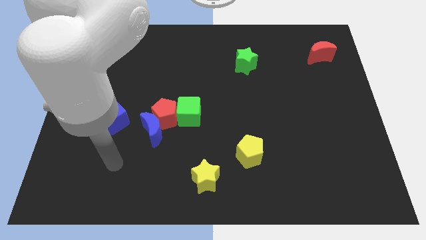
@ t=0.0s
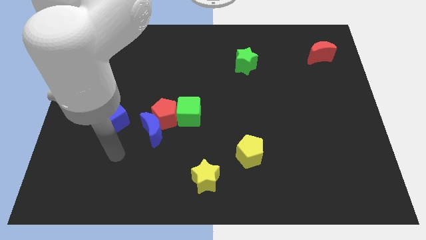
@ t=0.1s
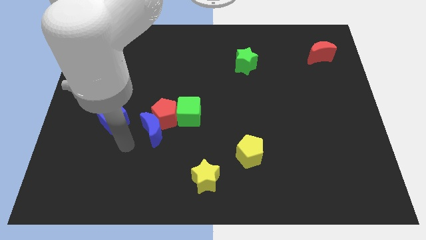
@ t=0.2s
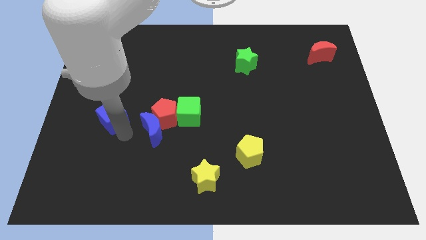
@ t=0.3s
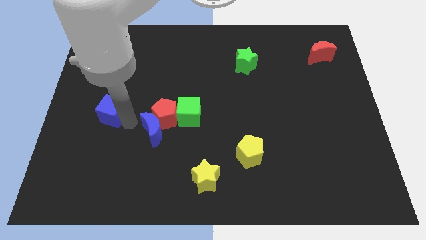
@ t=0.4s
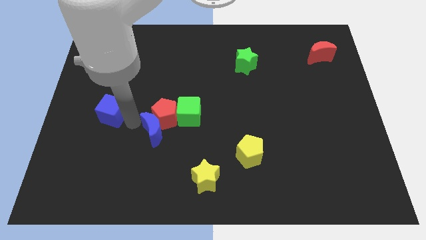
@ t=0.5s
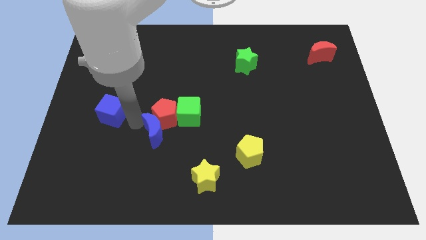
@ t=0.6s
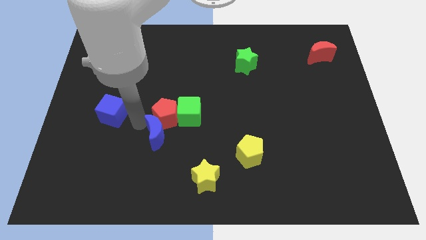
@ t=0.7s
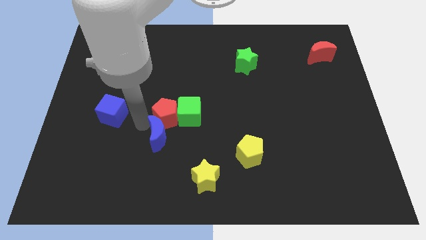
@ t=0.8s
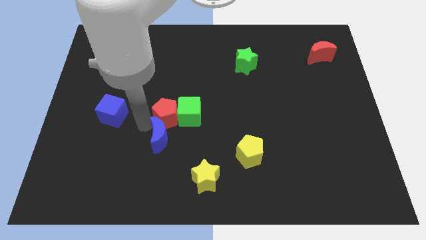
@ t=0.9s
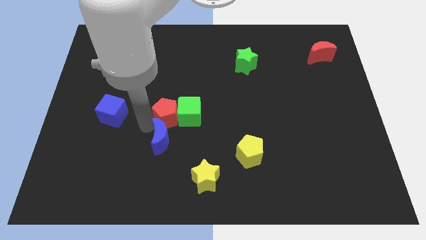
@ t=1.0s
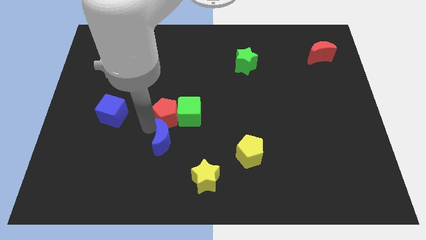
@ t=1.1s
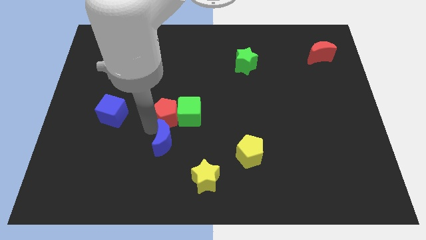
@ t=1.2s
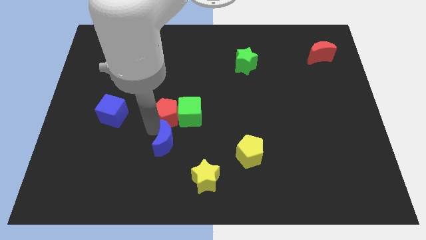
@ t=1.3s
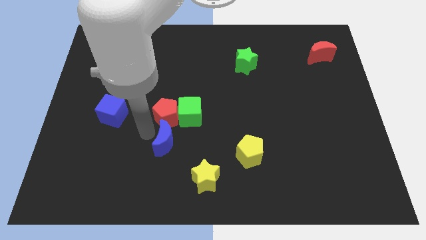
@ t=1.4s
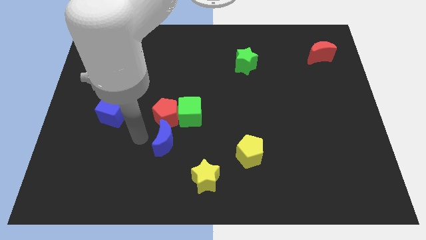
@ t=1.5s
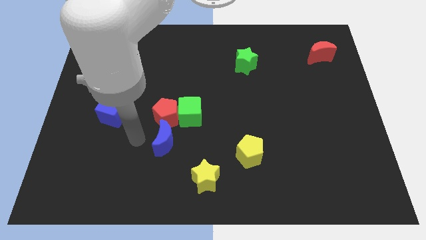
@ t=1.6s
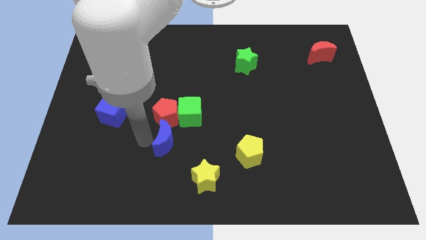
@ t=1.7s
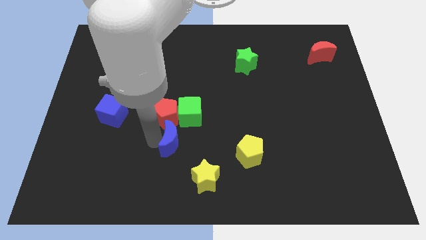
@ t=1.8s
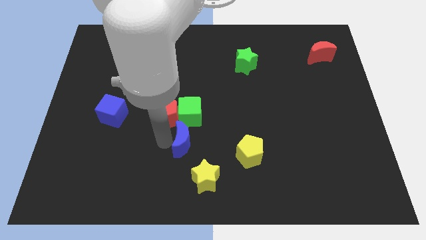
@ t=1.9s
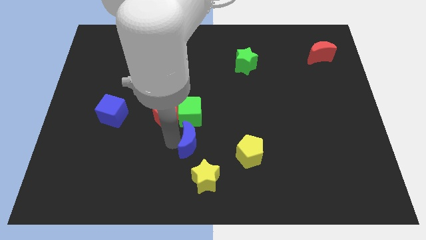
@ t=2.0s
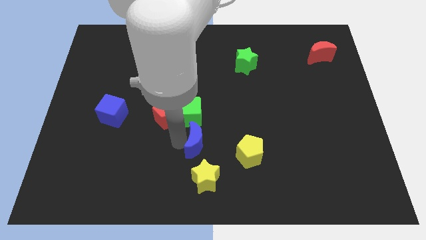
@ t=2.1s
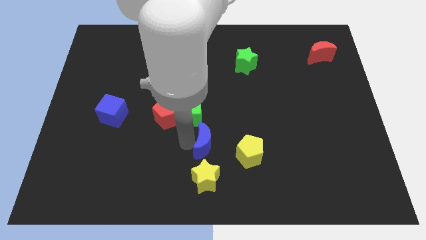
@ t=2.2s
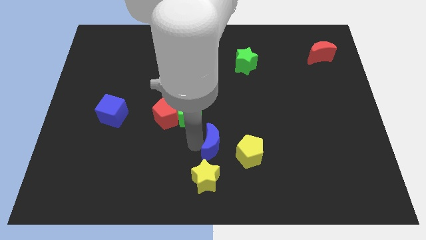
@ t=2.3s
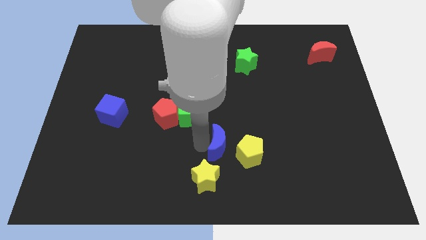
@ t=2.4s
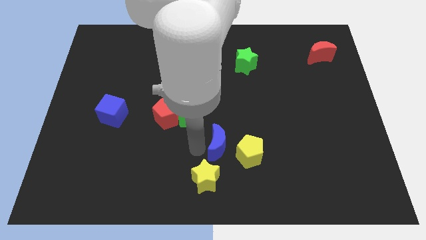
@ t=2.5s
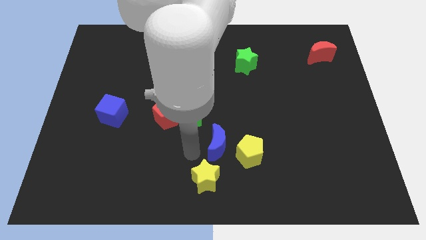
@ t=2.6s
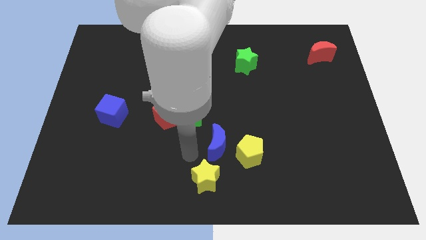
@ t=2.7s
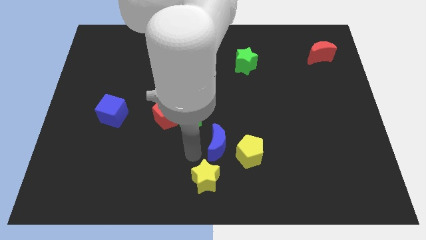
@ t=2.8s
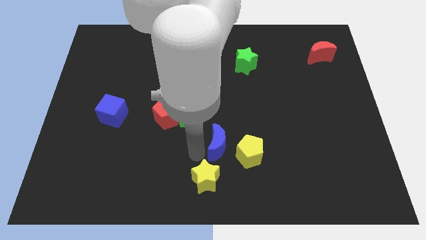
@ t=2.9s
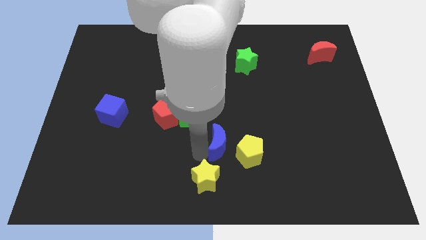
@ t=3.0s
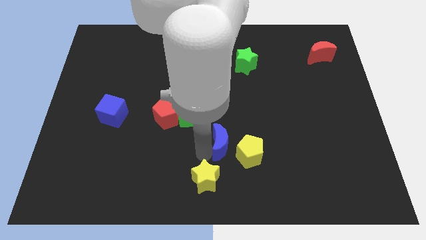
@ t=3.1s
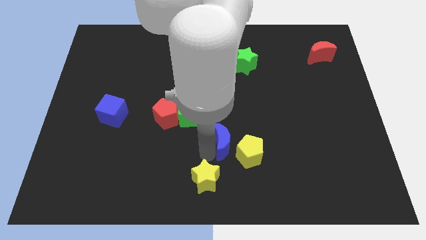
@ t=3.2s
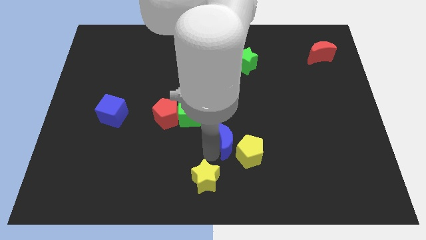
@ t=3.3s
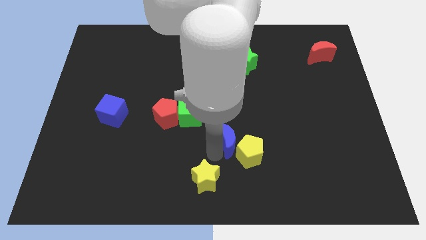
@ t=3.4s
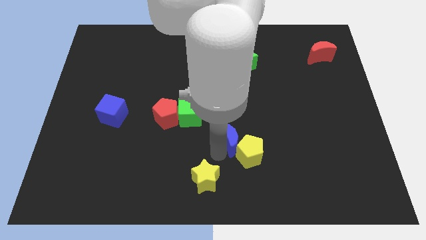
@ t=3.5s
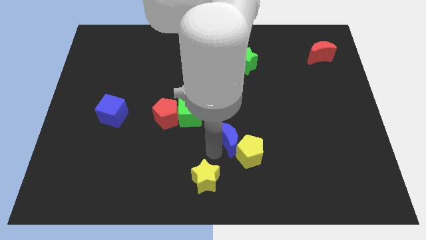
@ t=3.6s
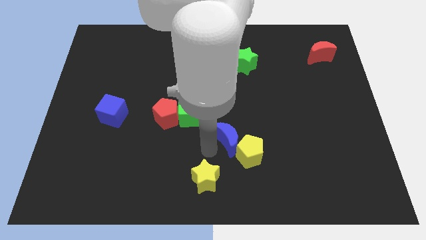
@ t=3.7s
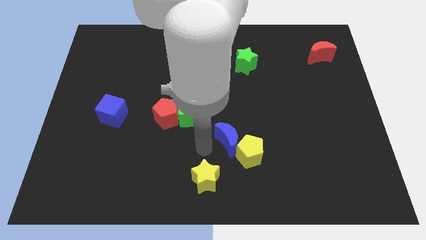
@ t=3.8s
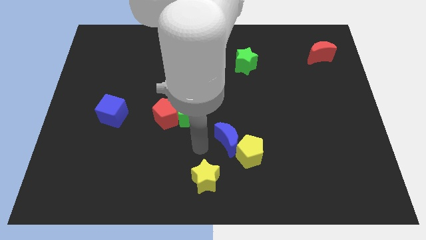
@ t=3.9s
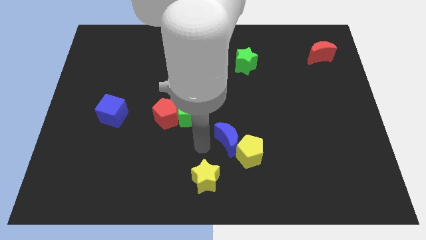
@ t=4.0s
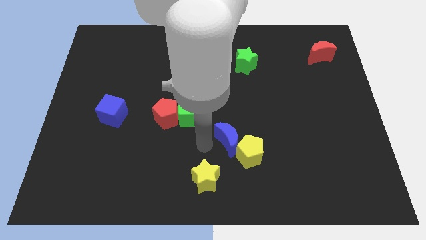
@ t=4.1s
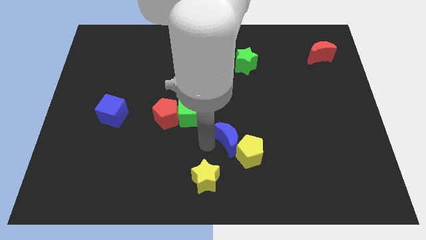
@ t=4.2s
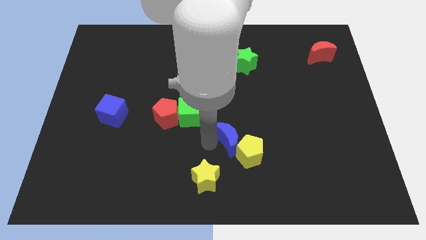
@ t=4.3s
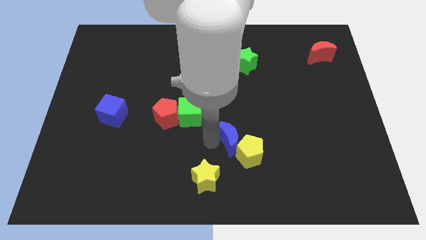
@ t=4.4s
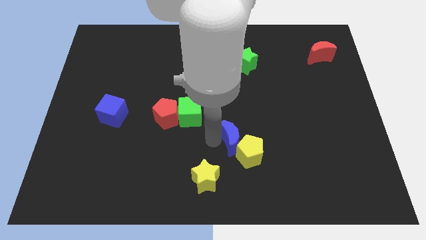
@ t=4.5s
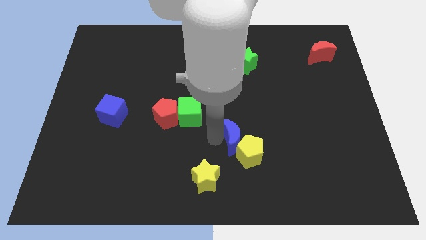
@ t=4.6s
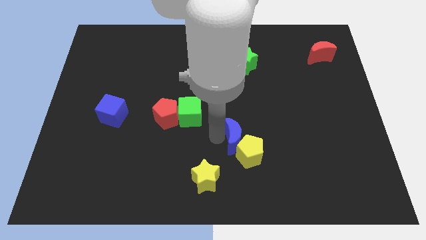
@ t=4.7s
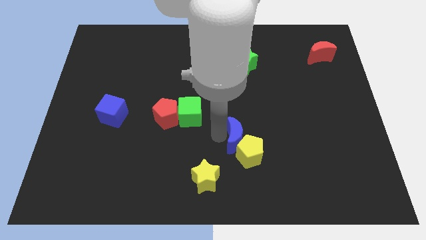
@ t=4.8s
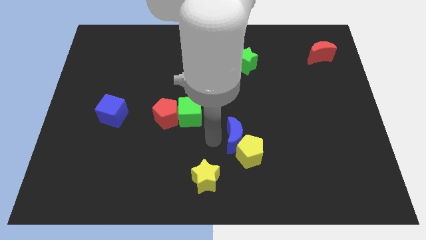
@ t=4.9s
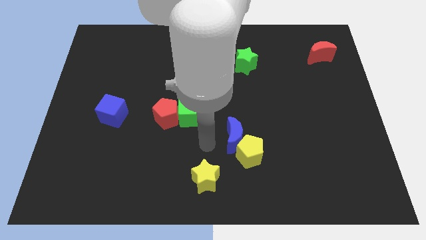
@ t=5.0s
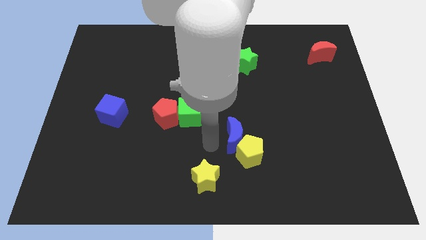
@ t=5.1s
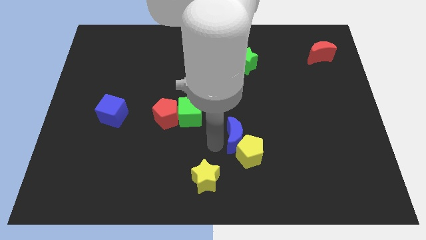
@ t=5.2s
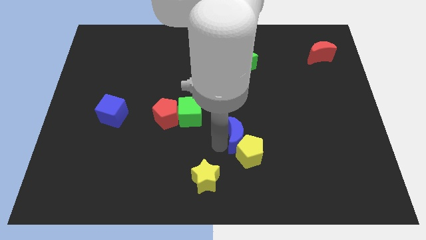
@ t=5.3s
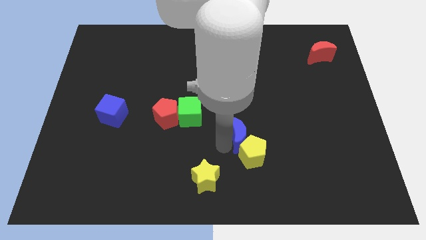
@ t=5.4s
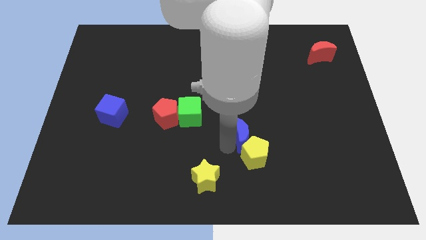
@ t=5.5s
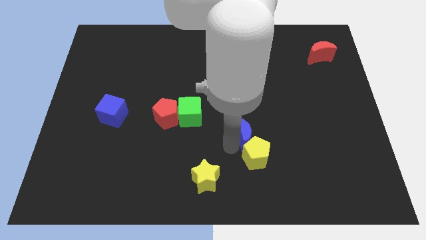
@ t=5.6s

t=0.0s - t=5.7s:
slide the blue moon right

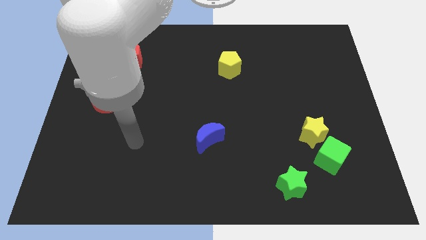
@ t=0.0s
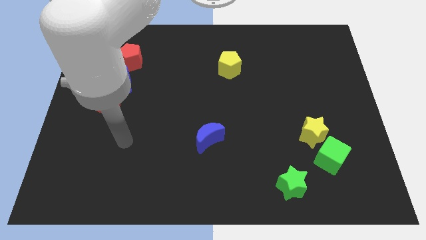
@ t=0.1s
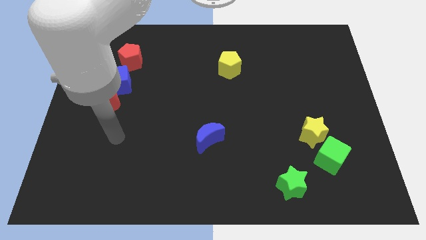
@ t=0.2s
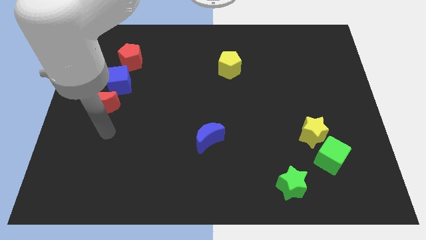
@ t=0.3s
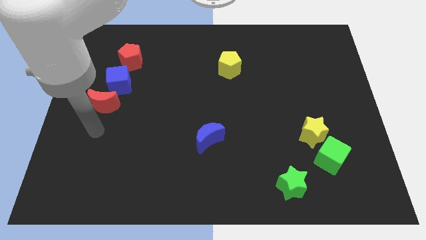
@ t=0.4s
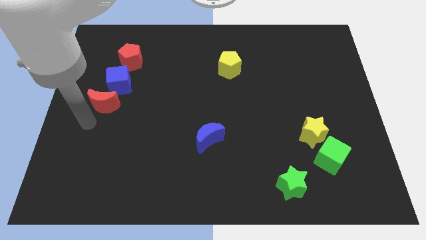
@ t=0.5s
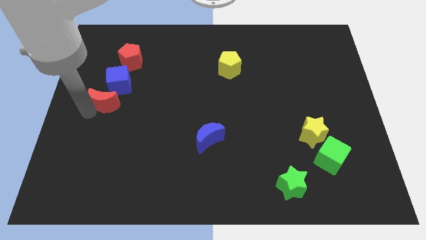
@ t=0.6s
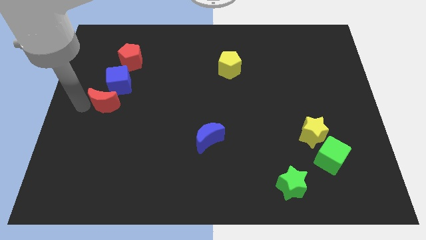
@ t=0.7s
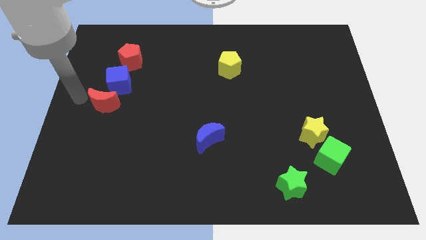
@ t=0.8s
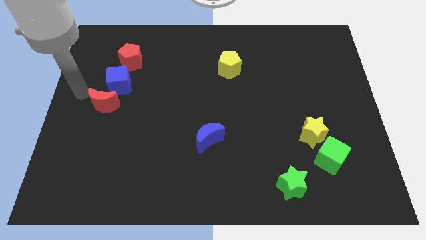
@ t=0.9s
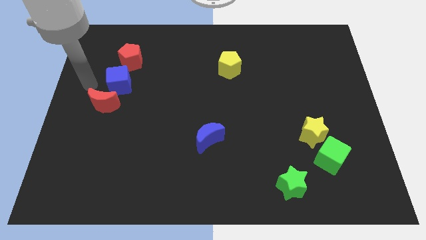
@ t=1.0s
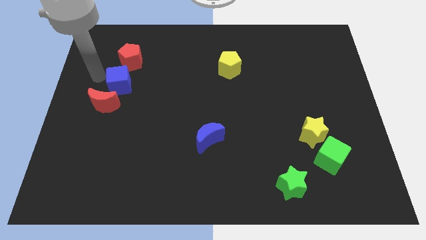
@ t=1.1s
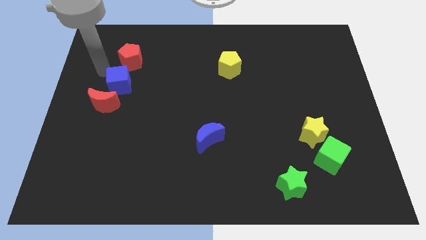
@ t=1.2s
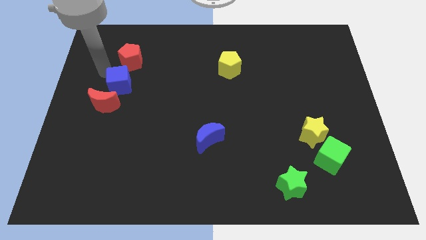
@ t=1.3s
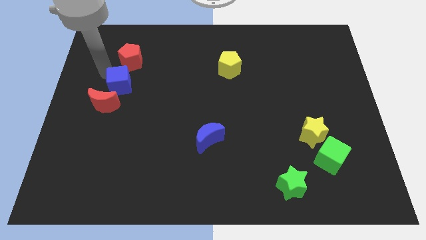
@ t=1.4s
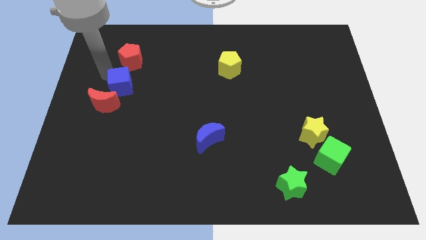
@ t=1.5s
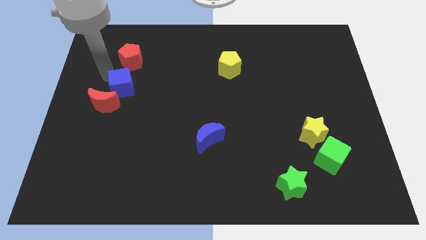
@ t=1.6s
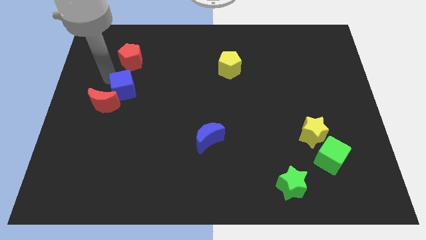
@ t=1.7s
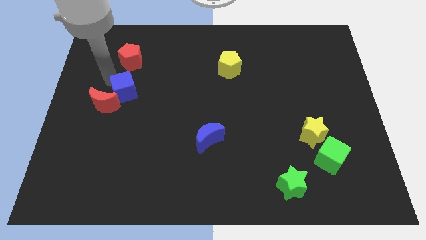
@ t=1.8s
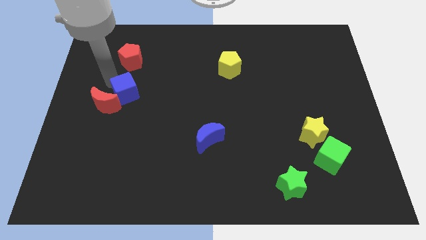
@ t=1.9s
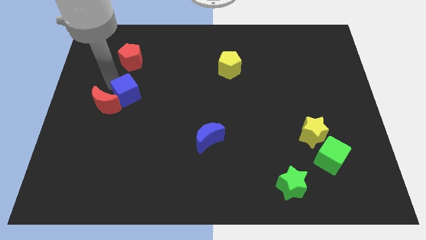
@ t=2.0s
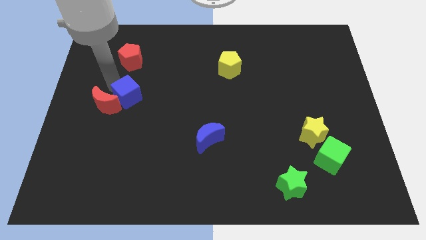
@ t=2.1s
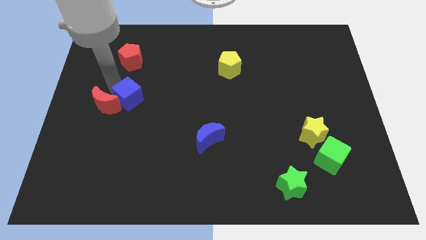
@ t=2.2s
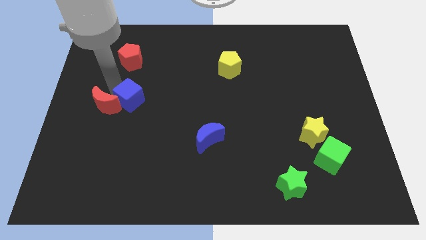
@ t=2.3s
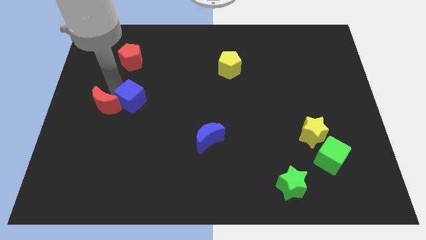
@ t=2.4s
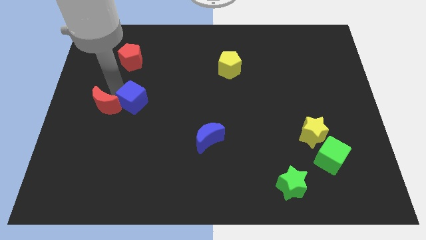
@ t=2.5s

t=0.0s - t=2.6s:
push the blue cube somewhat diagonally down and right
